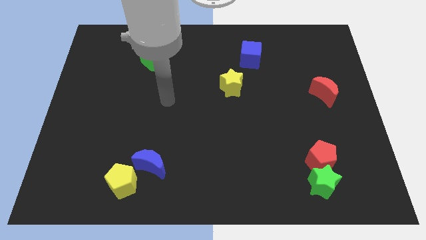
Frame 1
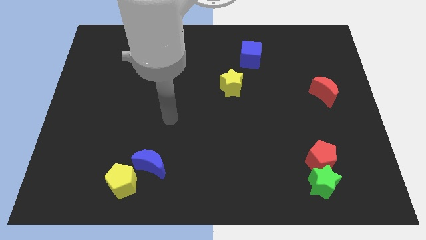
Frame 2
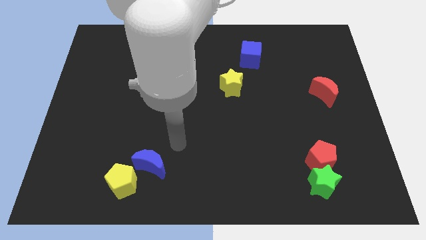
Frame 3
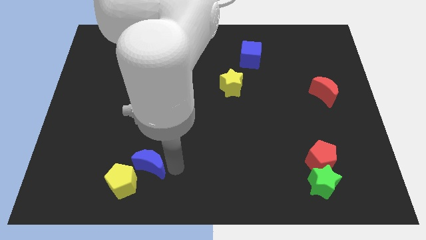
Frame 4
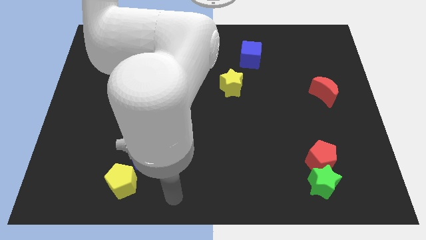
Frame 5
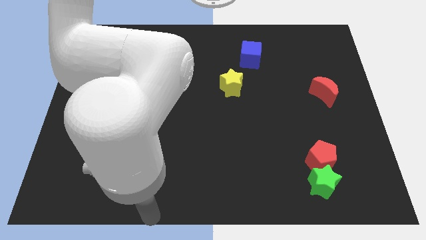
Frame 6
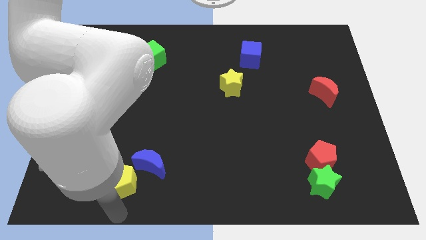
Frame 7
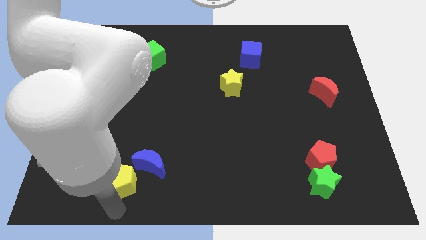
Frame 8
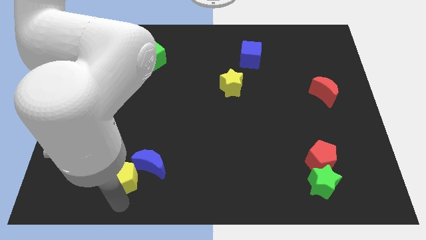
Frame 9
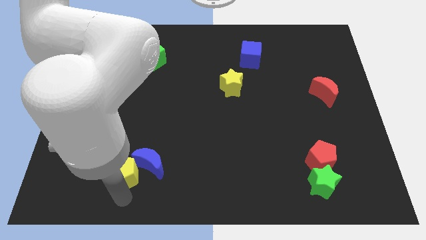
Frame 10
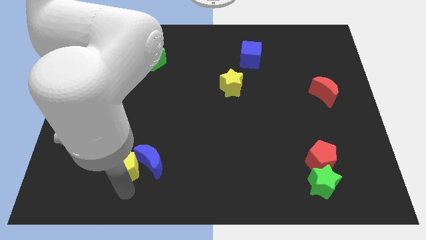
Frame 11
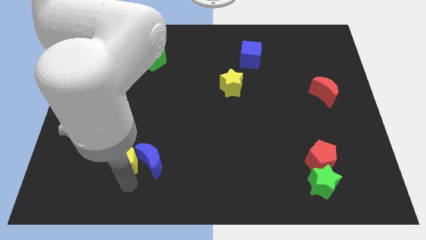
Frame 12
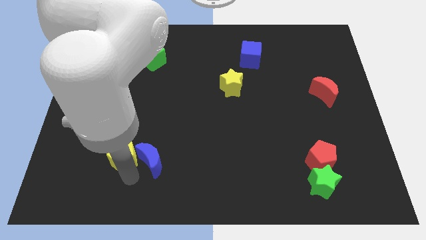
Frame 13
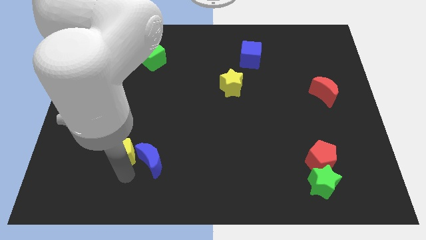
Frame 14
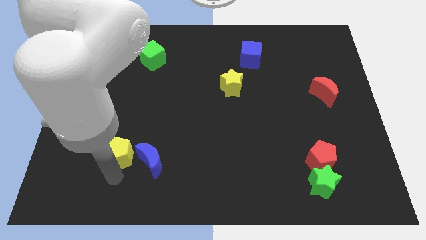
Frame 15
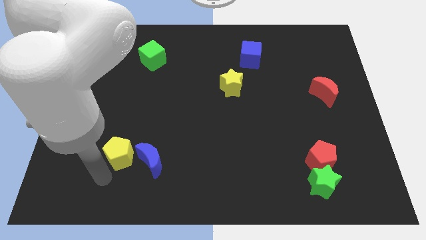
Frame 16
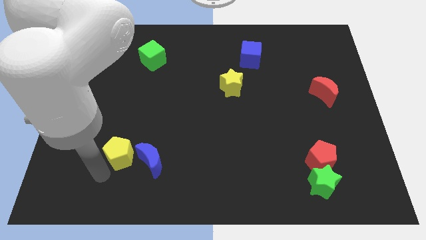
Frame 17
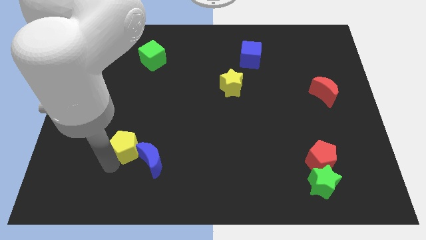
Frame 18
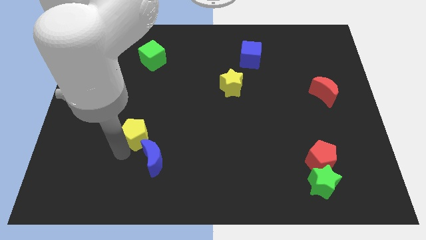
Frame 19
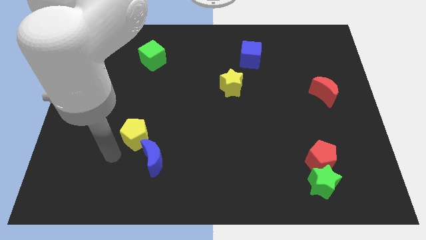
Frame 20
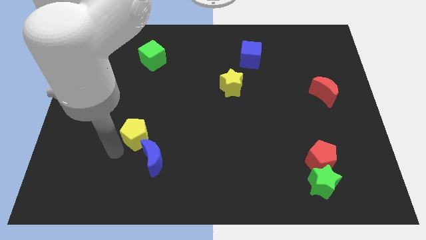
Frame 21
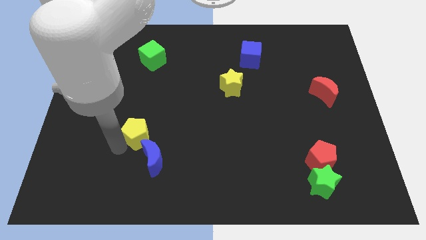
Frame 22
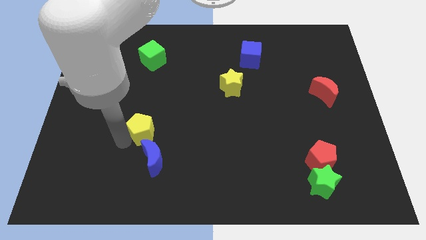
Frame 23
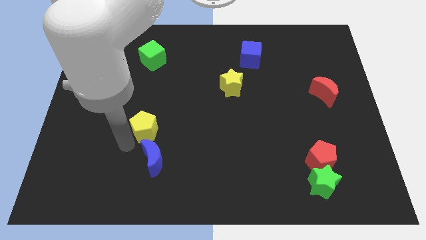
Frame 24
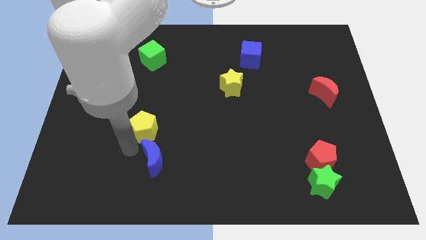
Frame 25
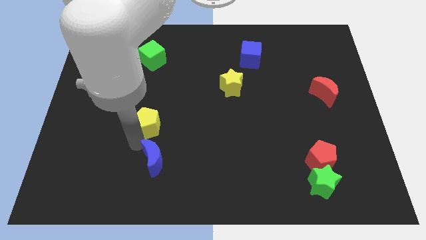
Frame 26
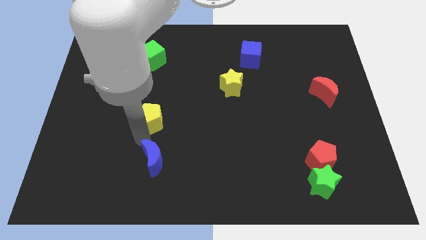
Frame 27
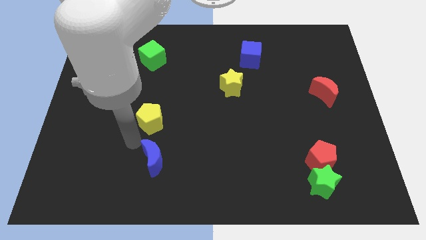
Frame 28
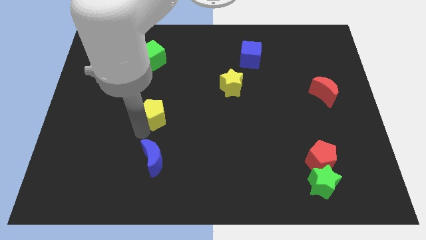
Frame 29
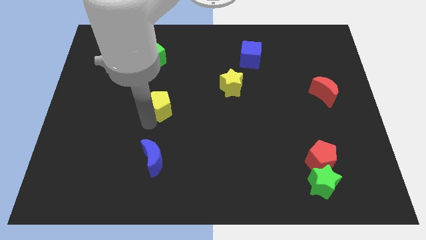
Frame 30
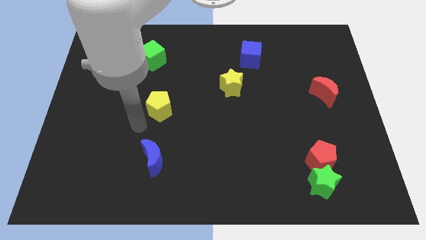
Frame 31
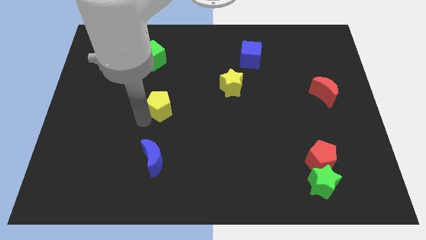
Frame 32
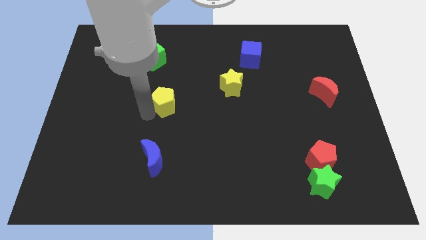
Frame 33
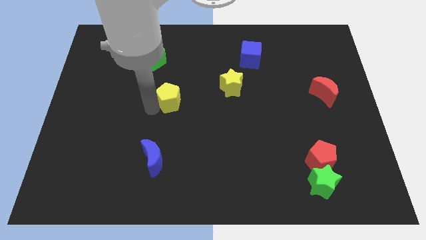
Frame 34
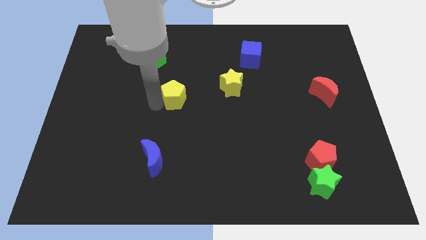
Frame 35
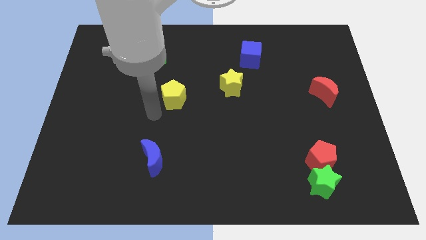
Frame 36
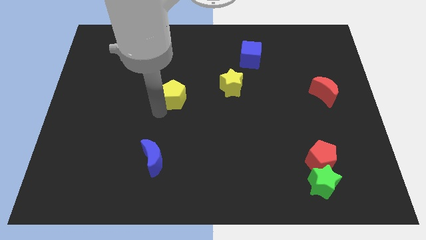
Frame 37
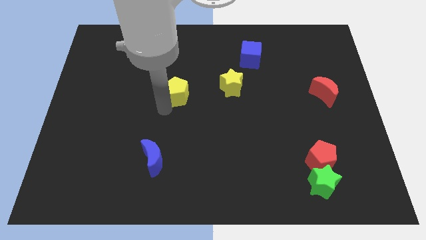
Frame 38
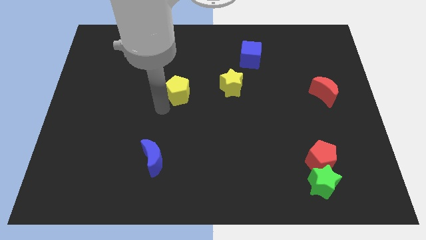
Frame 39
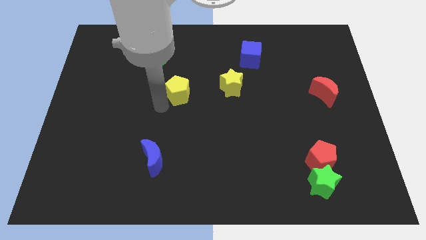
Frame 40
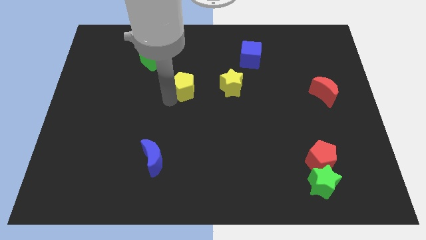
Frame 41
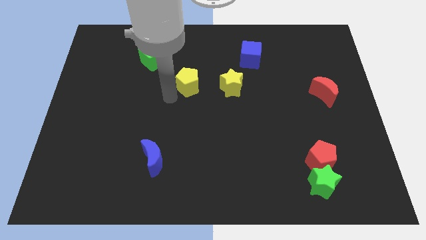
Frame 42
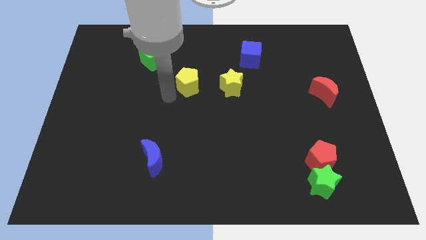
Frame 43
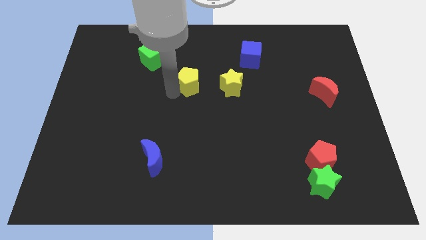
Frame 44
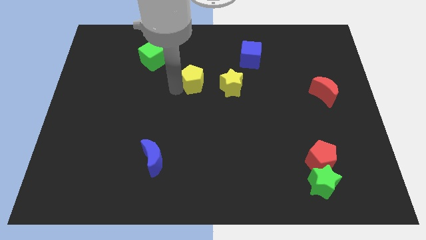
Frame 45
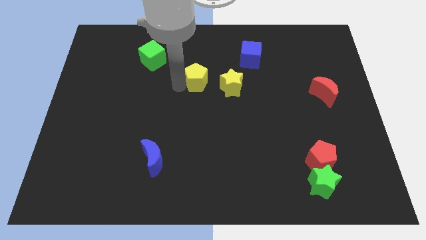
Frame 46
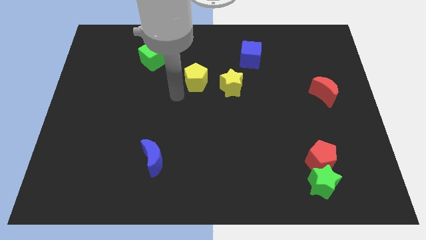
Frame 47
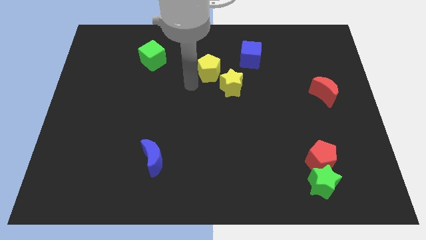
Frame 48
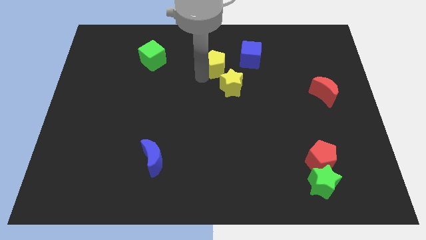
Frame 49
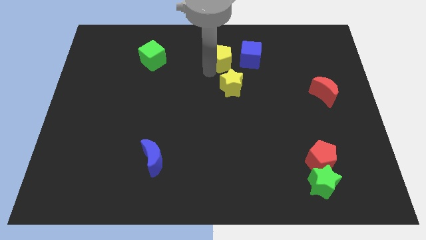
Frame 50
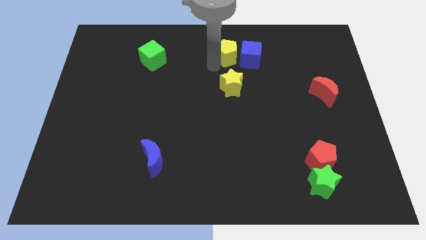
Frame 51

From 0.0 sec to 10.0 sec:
move the yellow pentagon close to the blue cube

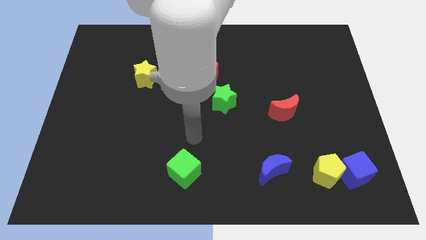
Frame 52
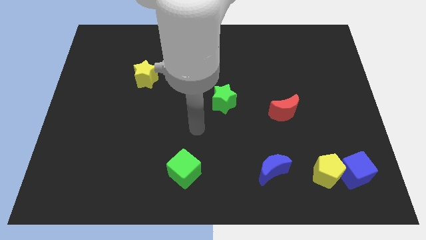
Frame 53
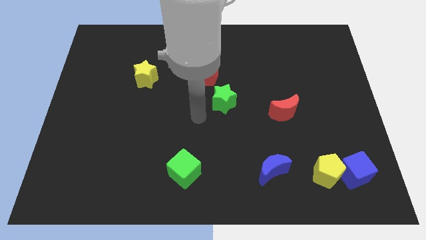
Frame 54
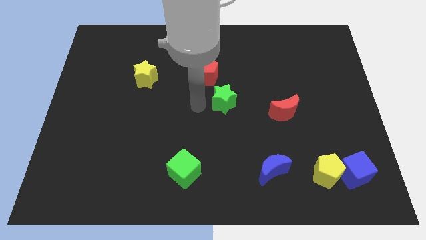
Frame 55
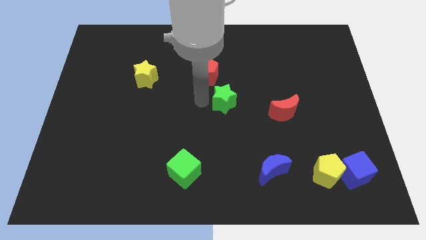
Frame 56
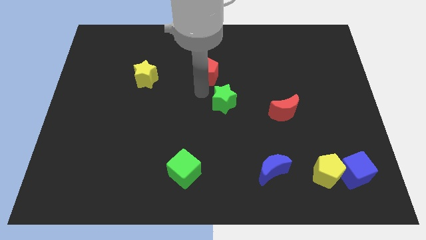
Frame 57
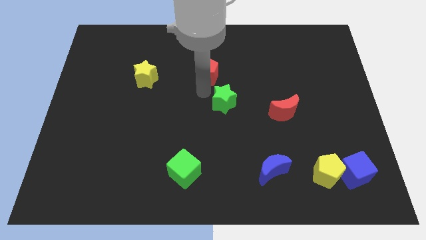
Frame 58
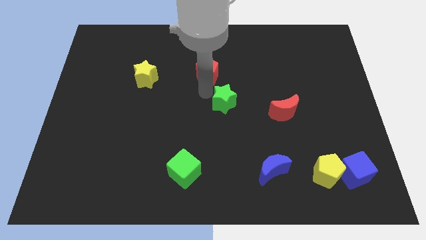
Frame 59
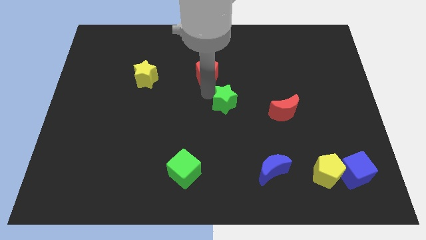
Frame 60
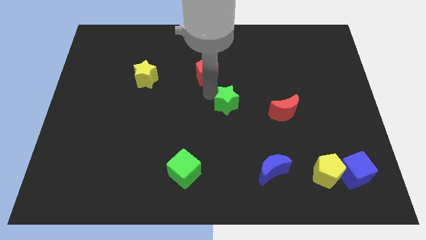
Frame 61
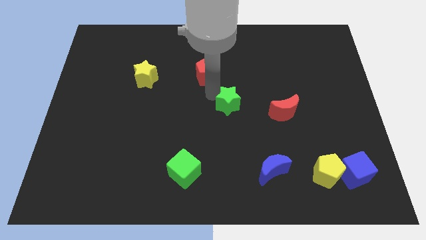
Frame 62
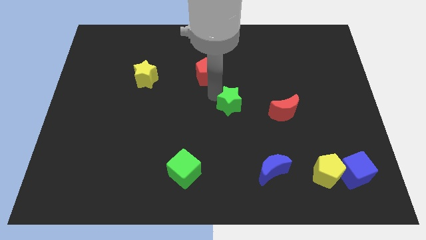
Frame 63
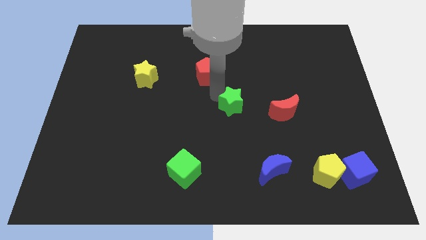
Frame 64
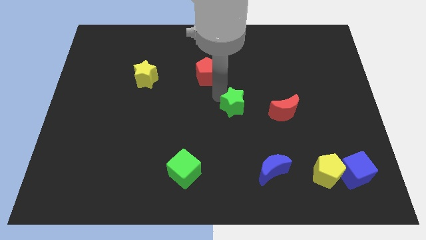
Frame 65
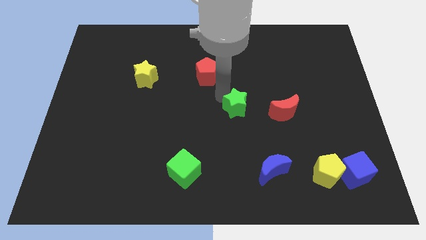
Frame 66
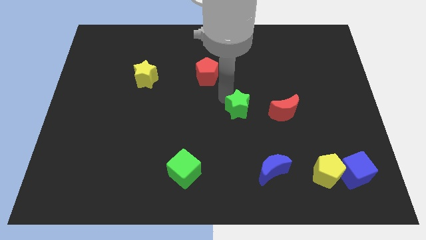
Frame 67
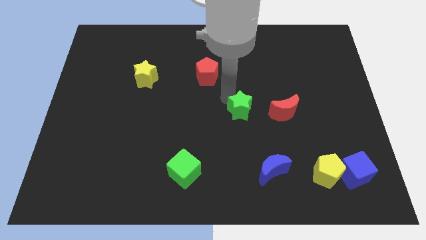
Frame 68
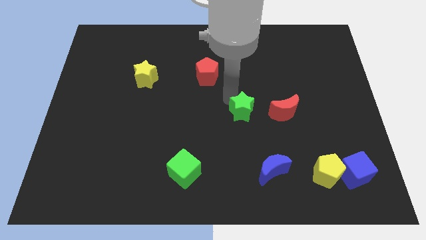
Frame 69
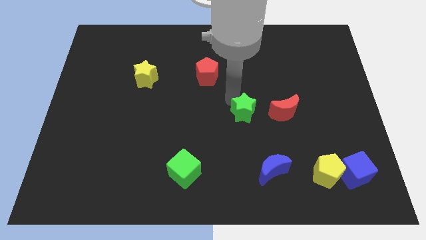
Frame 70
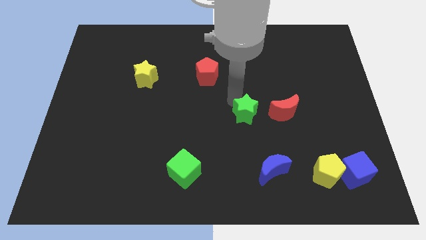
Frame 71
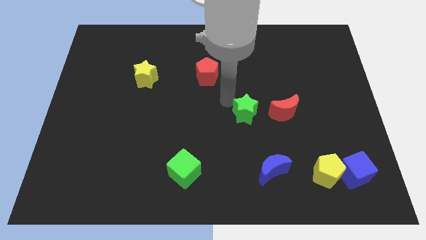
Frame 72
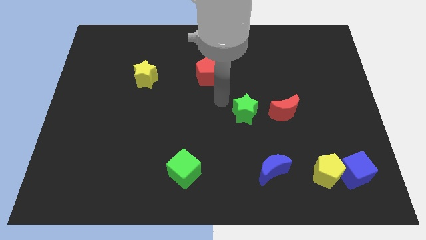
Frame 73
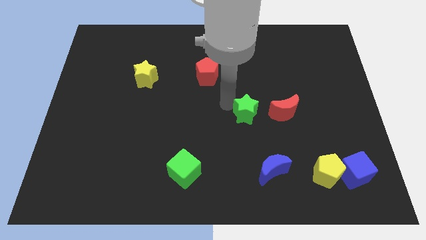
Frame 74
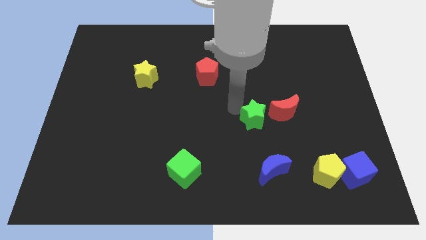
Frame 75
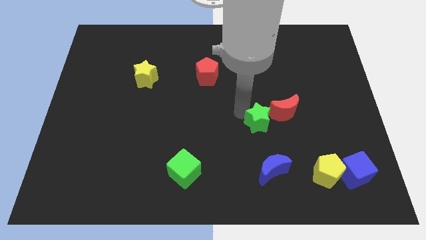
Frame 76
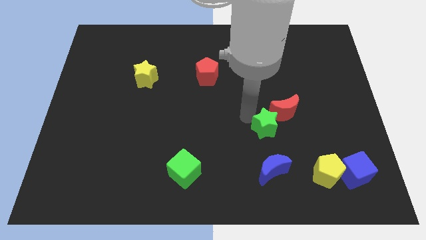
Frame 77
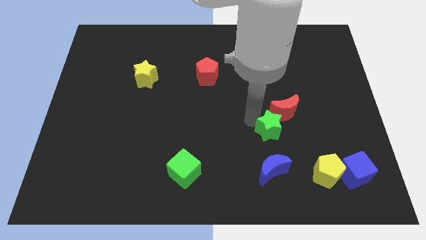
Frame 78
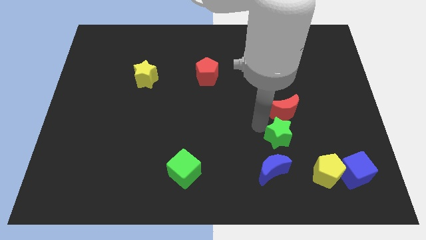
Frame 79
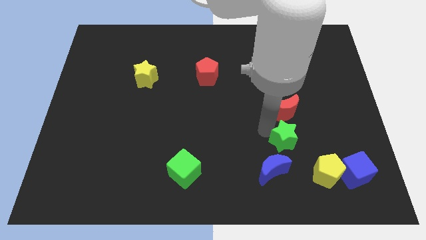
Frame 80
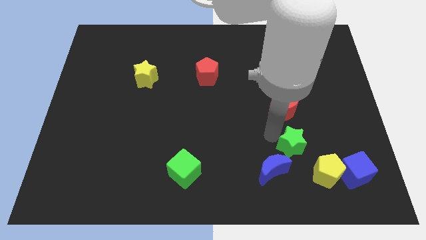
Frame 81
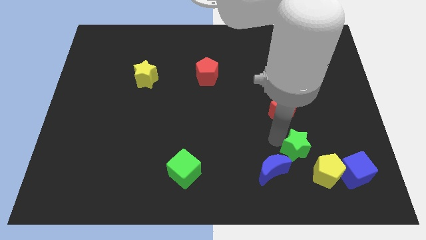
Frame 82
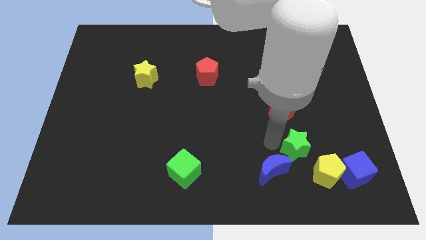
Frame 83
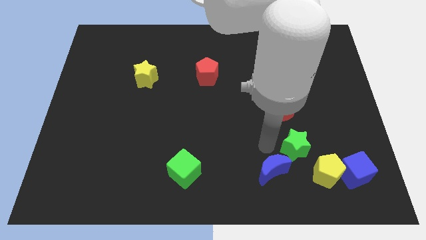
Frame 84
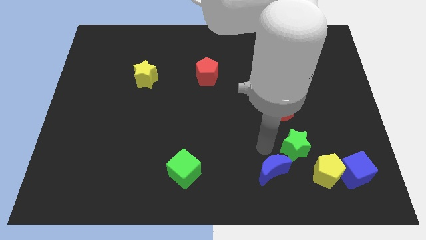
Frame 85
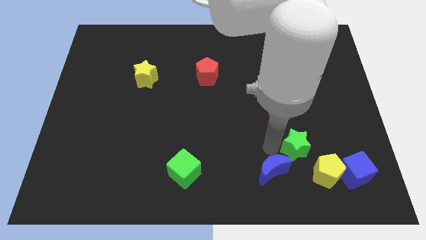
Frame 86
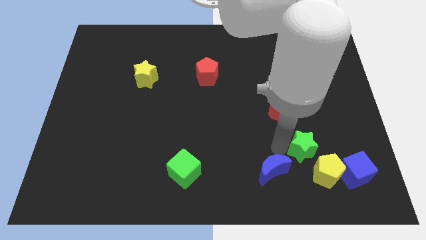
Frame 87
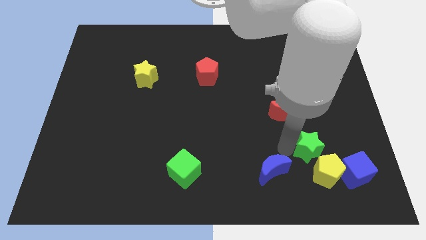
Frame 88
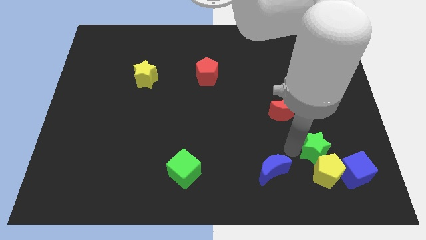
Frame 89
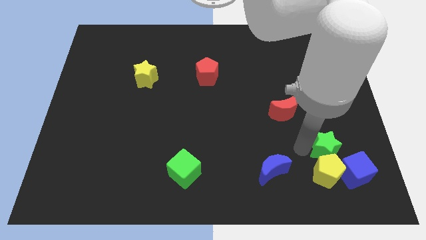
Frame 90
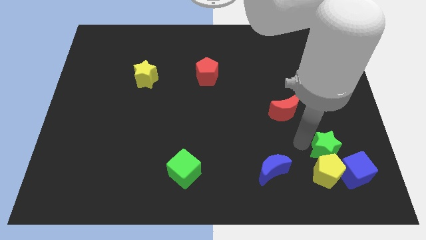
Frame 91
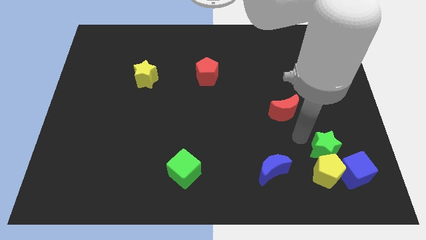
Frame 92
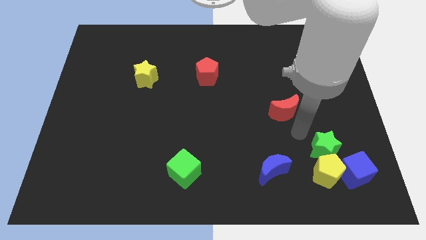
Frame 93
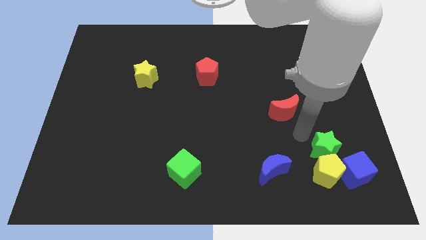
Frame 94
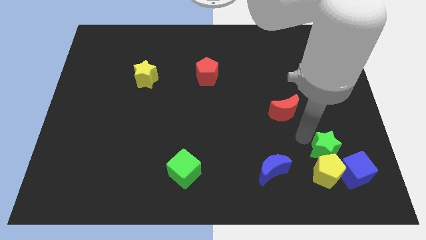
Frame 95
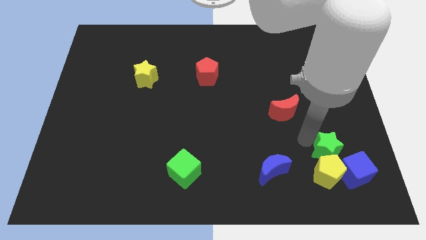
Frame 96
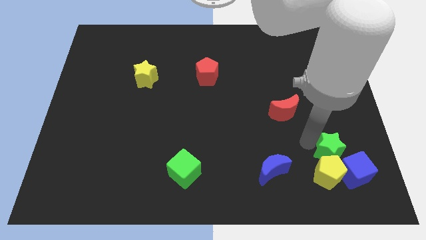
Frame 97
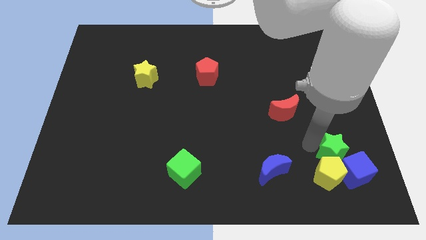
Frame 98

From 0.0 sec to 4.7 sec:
slide the green star next to the blue cube
